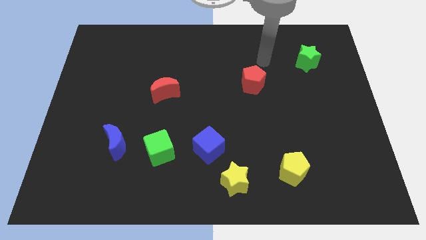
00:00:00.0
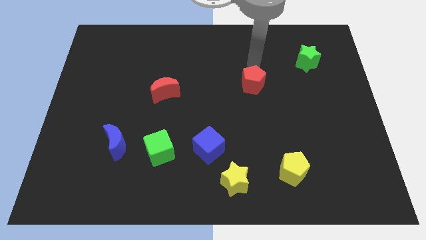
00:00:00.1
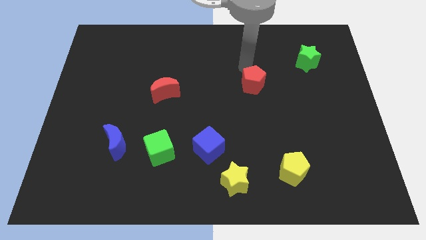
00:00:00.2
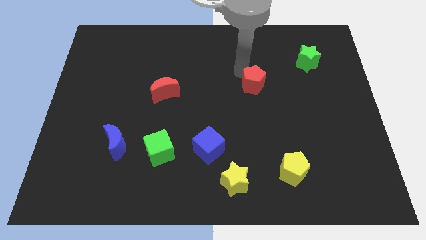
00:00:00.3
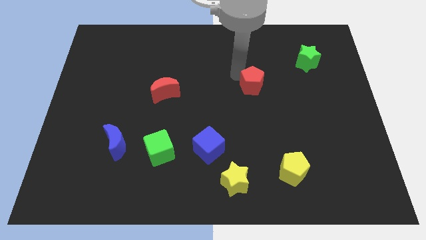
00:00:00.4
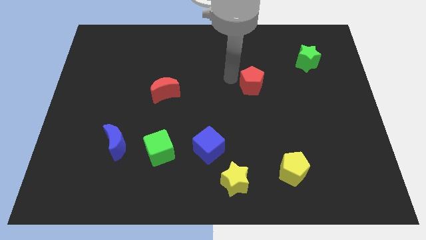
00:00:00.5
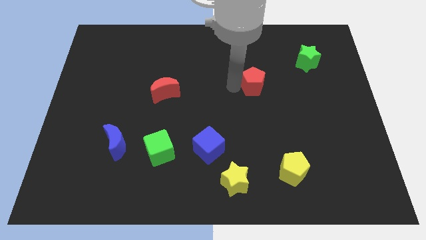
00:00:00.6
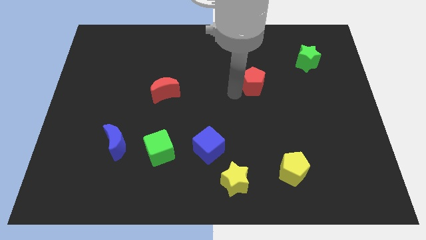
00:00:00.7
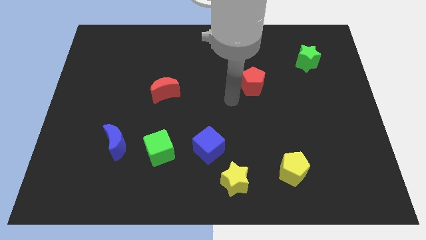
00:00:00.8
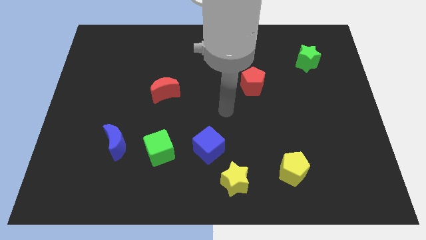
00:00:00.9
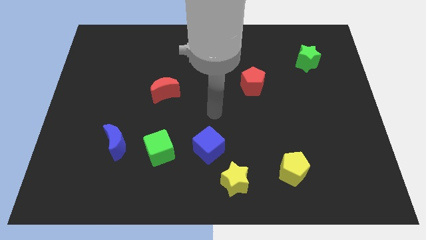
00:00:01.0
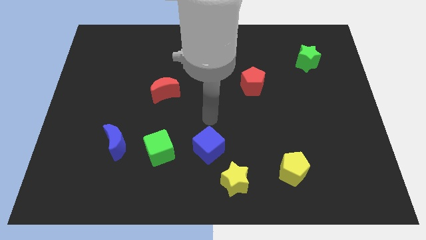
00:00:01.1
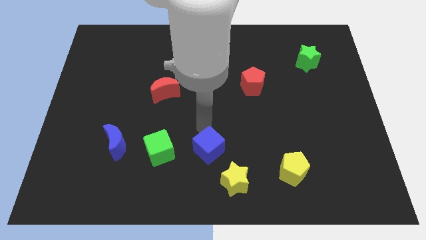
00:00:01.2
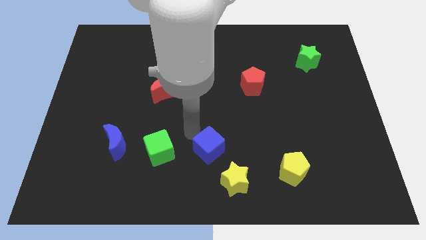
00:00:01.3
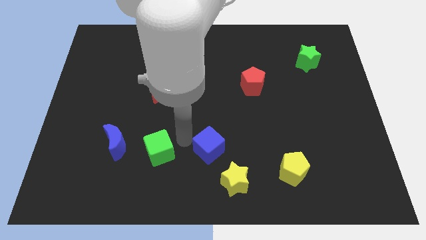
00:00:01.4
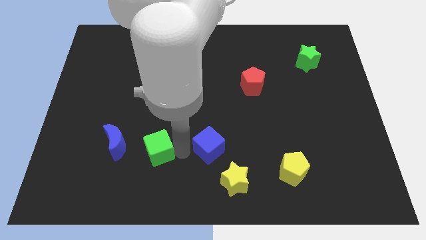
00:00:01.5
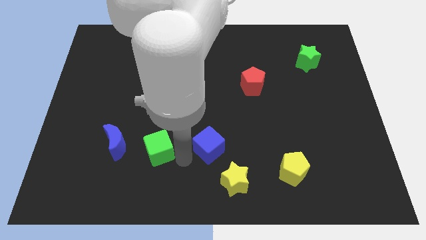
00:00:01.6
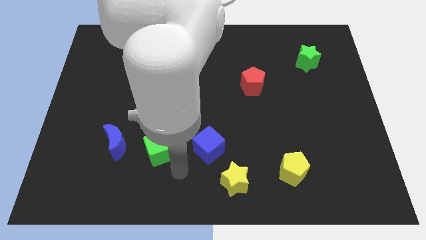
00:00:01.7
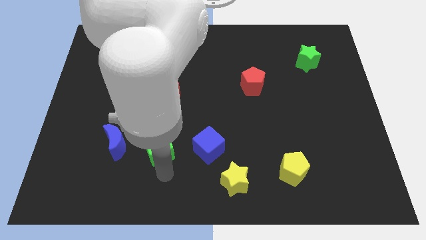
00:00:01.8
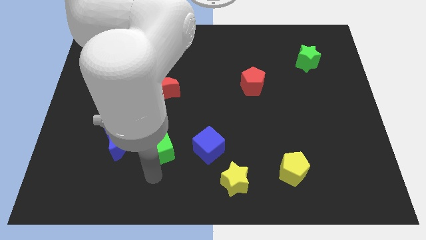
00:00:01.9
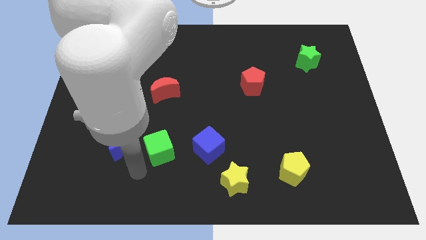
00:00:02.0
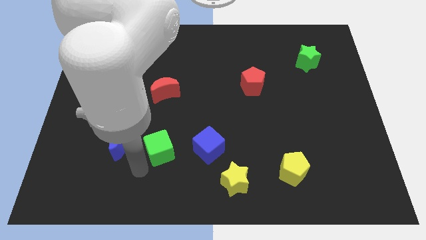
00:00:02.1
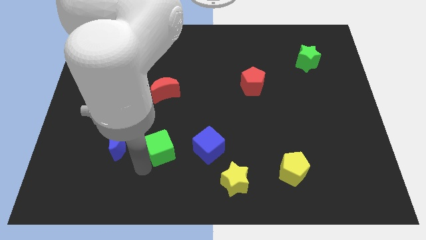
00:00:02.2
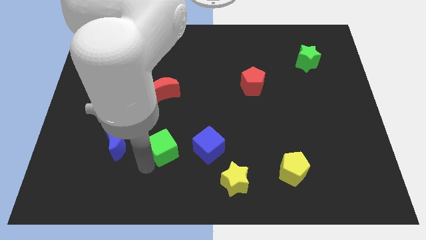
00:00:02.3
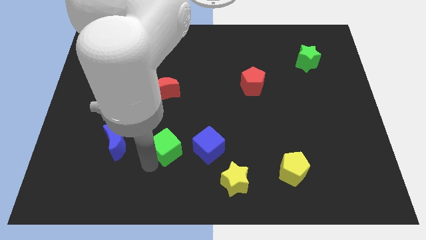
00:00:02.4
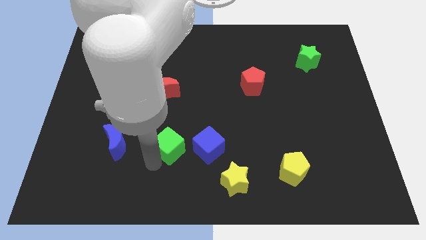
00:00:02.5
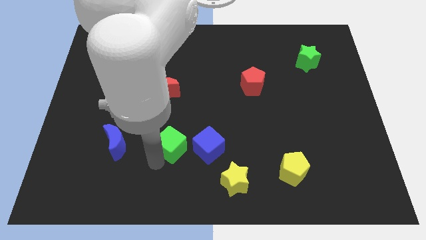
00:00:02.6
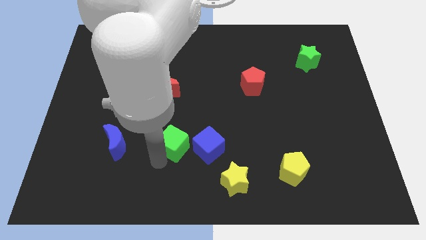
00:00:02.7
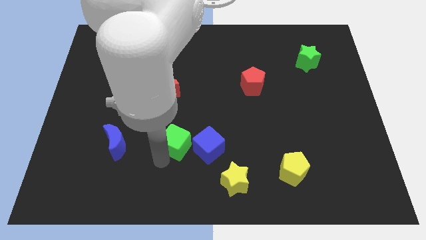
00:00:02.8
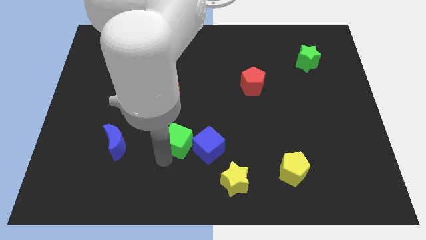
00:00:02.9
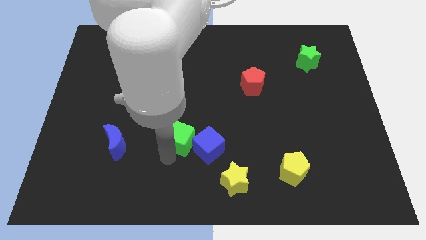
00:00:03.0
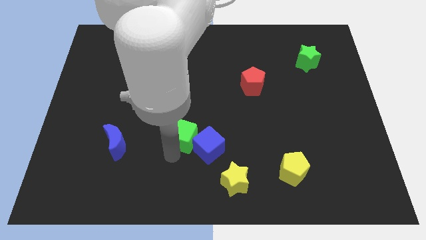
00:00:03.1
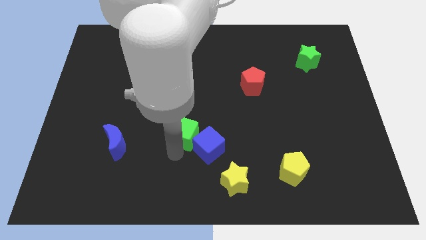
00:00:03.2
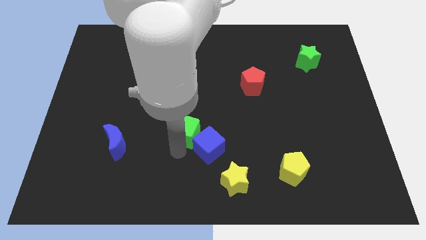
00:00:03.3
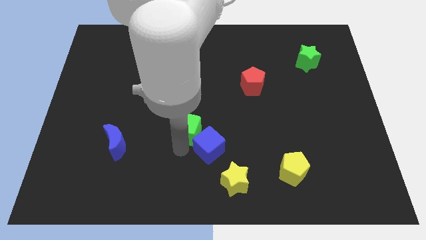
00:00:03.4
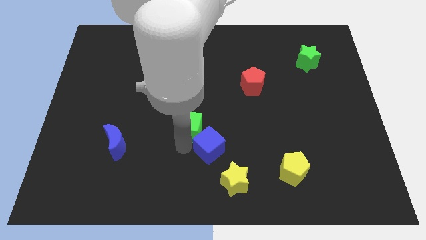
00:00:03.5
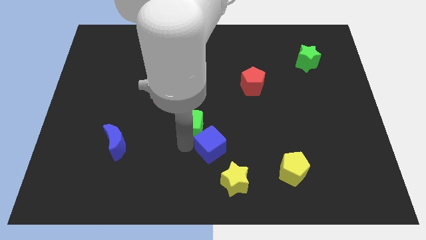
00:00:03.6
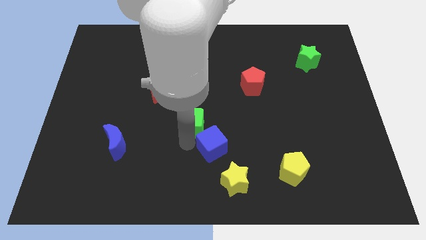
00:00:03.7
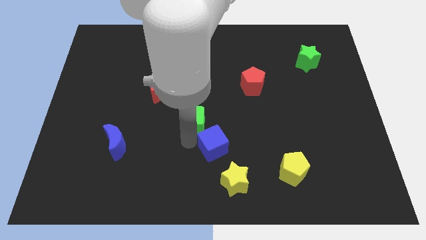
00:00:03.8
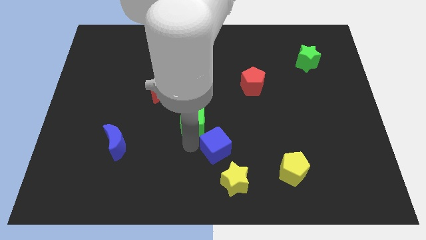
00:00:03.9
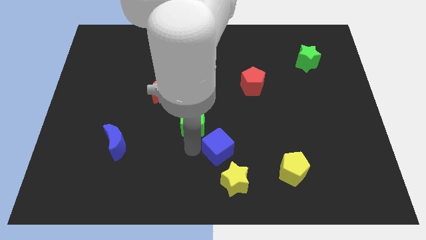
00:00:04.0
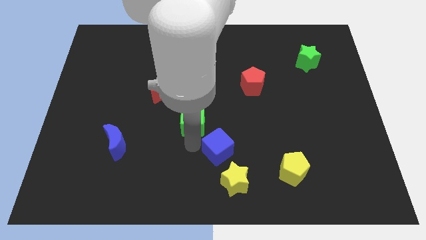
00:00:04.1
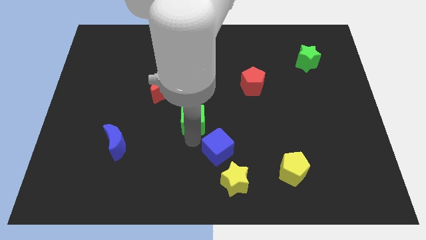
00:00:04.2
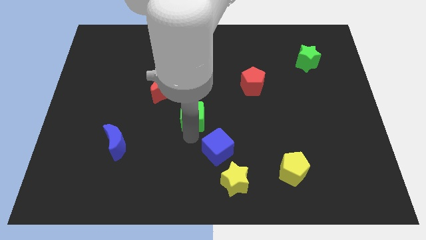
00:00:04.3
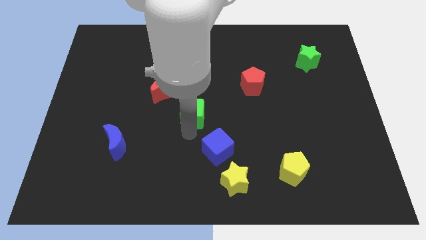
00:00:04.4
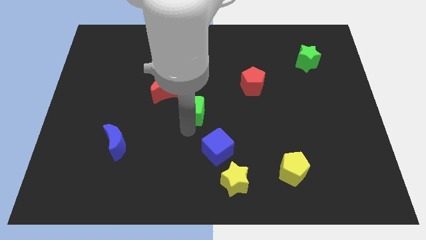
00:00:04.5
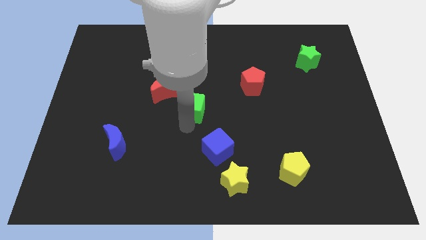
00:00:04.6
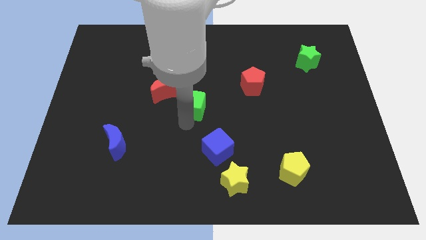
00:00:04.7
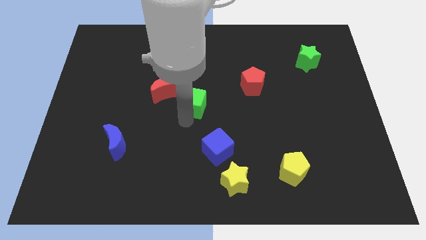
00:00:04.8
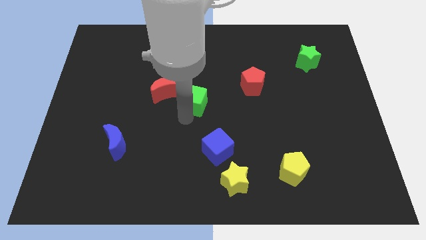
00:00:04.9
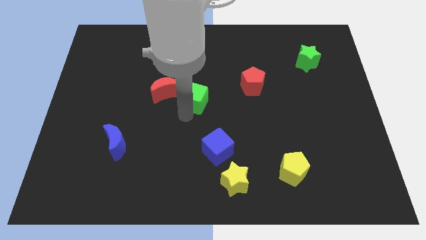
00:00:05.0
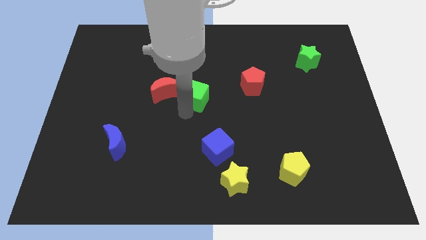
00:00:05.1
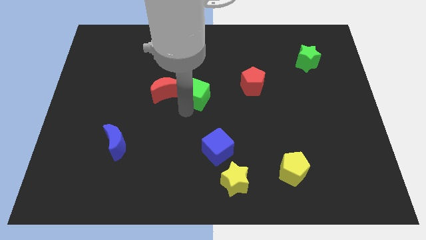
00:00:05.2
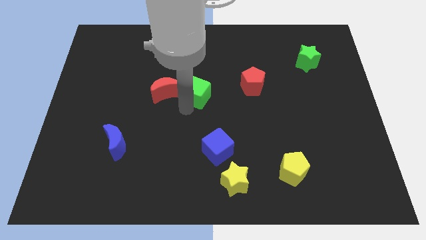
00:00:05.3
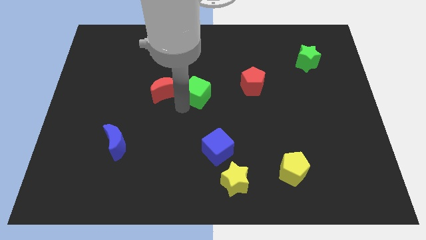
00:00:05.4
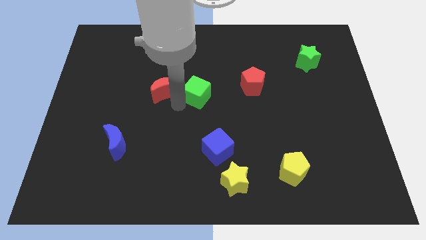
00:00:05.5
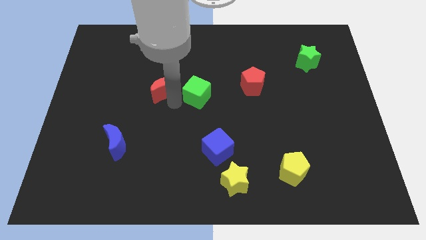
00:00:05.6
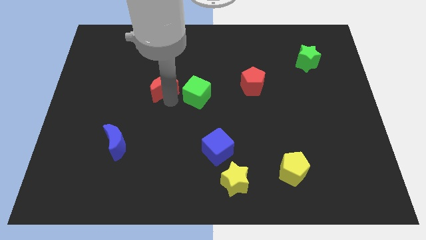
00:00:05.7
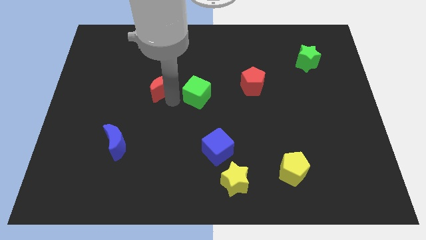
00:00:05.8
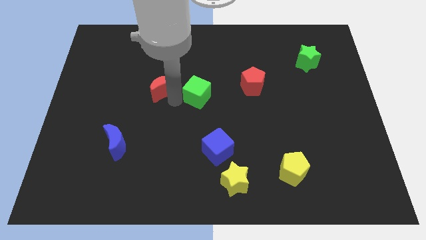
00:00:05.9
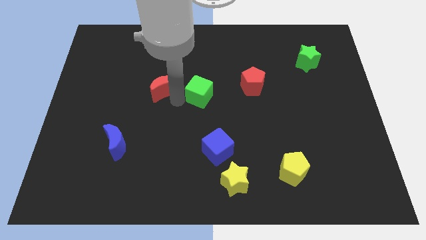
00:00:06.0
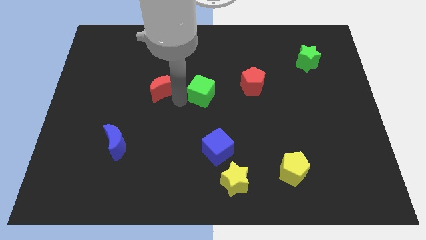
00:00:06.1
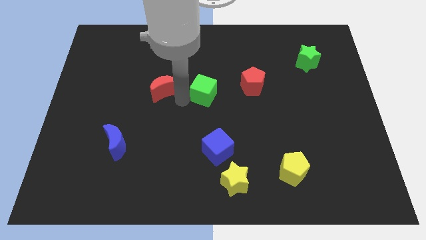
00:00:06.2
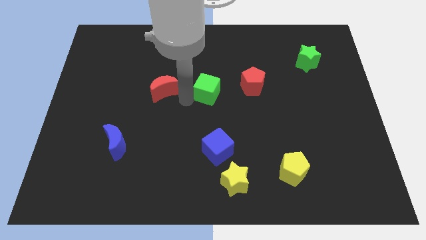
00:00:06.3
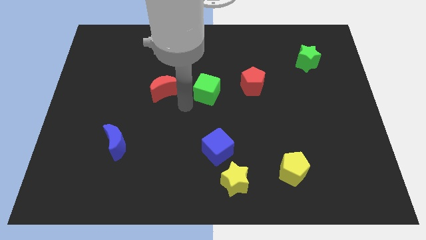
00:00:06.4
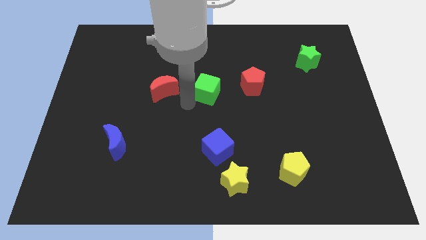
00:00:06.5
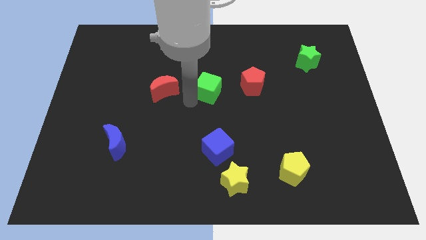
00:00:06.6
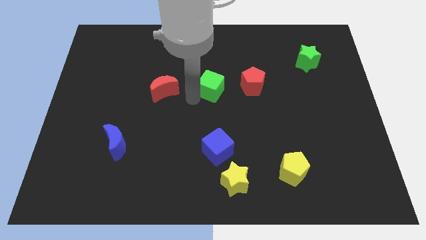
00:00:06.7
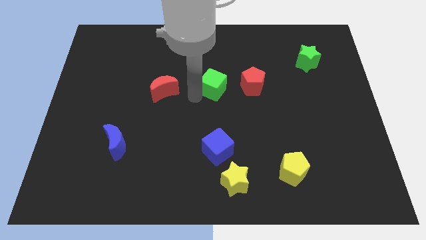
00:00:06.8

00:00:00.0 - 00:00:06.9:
move the green cube upwards and then right

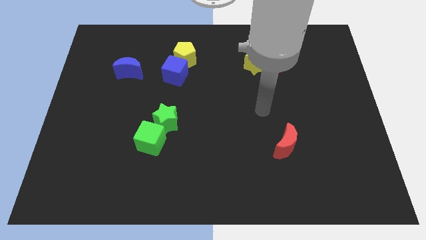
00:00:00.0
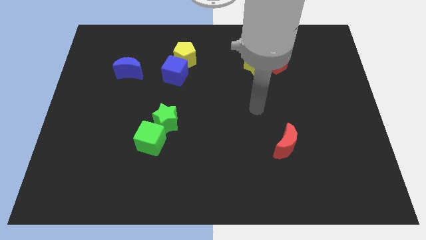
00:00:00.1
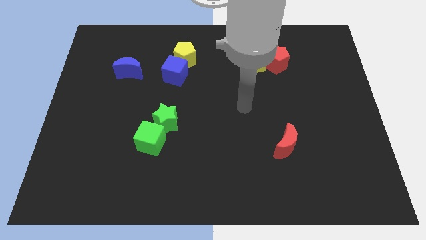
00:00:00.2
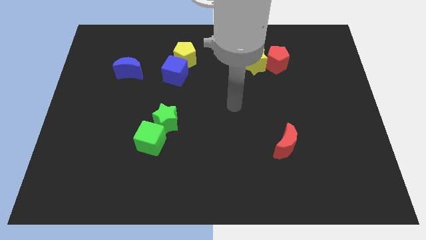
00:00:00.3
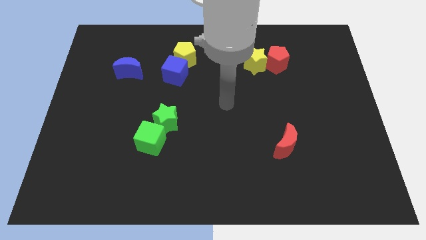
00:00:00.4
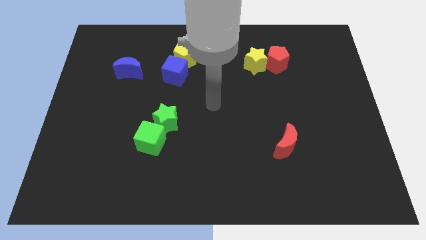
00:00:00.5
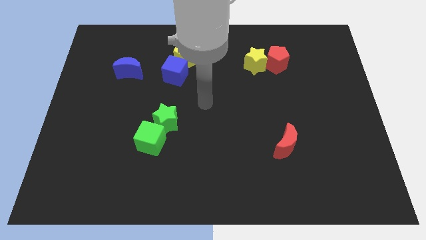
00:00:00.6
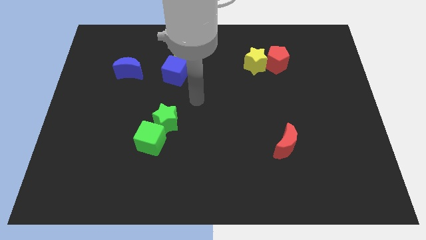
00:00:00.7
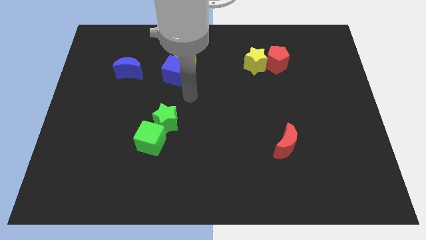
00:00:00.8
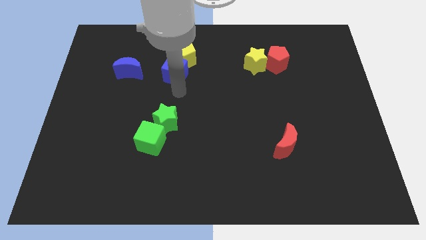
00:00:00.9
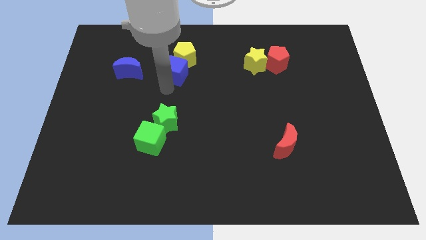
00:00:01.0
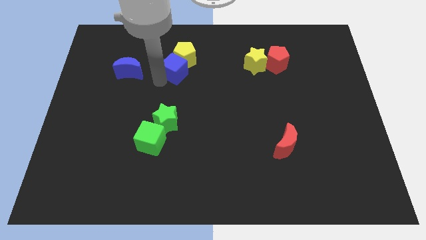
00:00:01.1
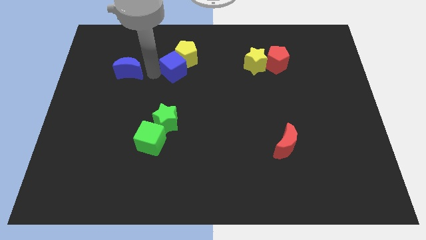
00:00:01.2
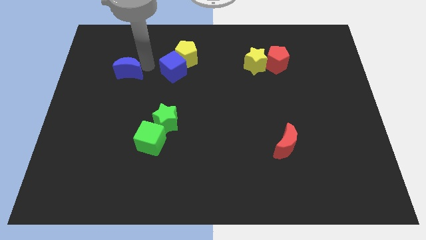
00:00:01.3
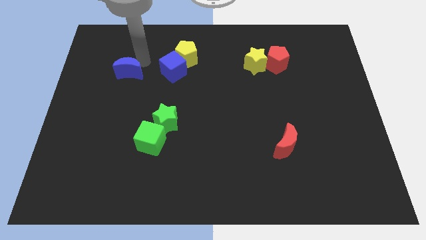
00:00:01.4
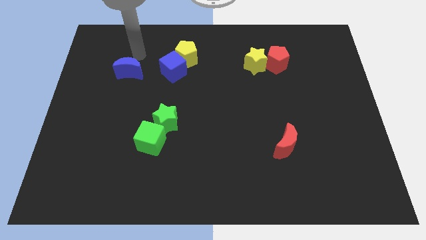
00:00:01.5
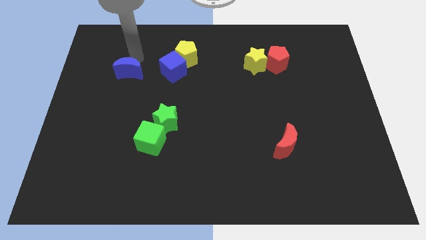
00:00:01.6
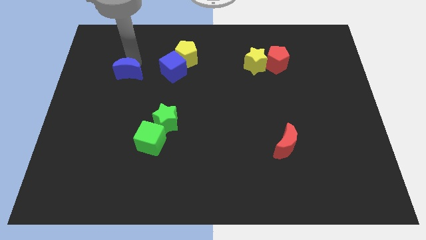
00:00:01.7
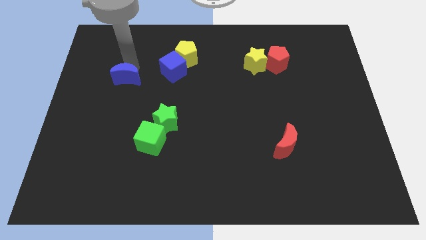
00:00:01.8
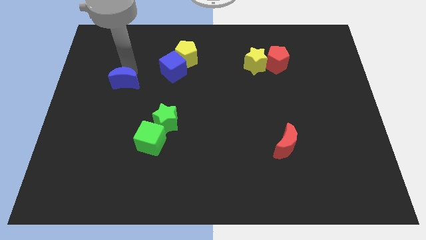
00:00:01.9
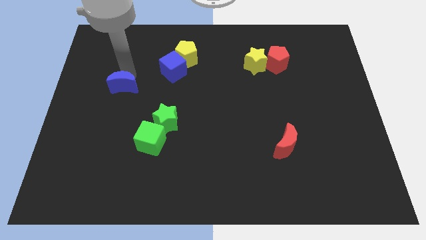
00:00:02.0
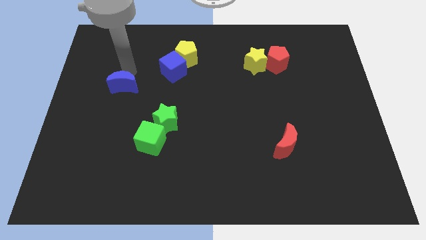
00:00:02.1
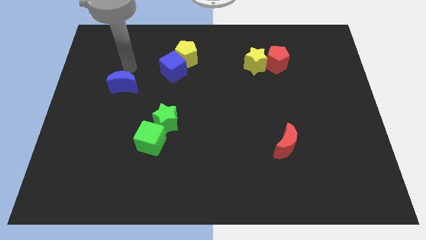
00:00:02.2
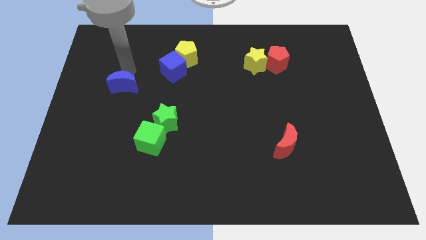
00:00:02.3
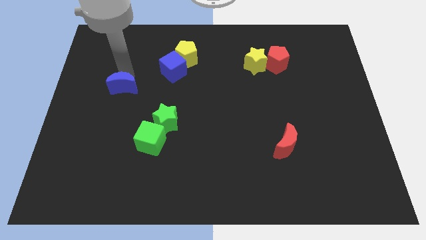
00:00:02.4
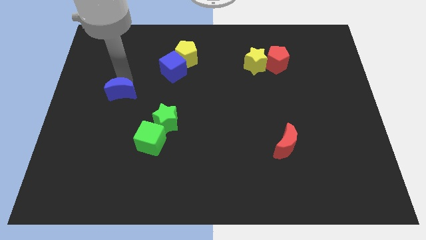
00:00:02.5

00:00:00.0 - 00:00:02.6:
move the blue moon downwards a little
